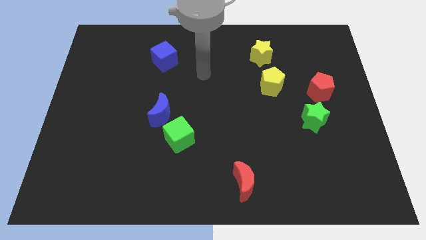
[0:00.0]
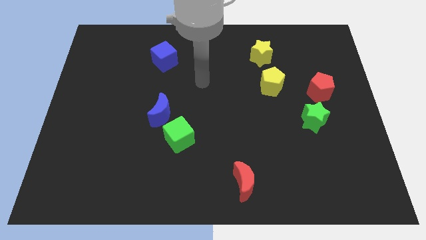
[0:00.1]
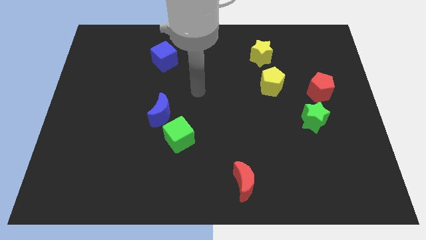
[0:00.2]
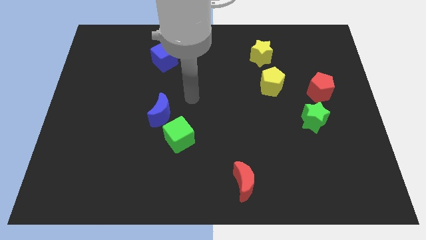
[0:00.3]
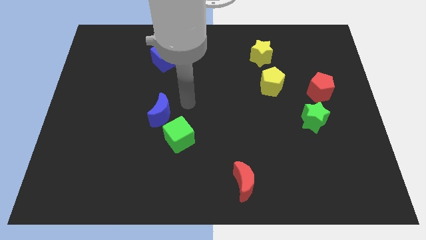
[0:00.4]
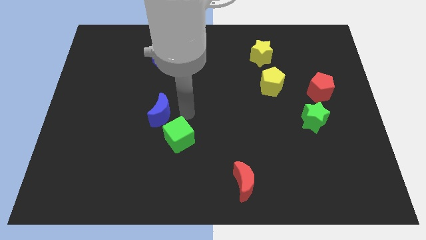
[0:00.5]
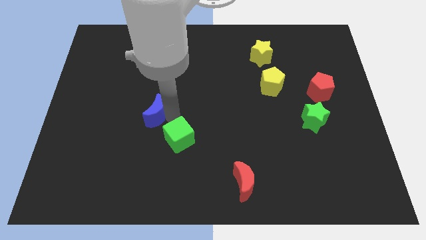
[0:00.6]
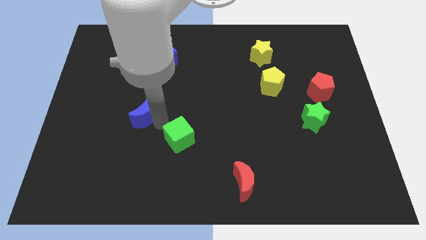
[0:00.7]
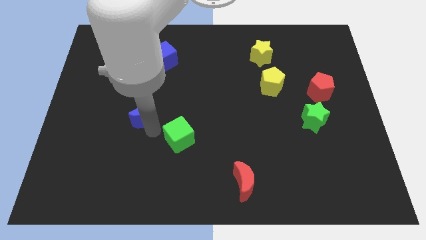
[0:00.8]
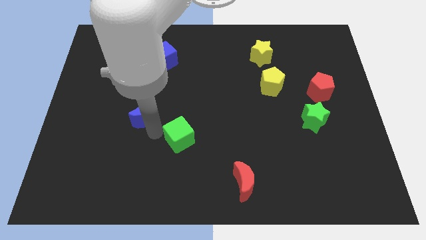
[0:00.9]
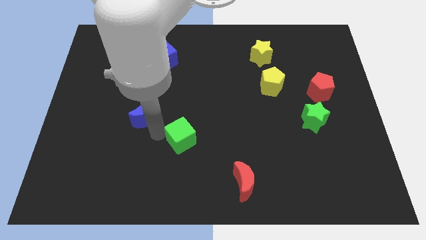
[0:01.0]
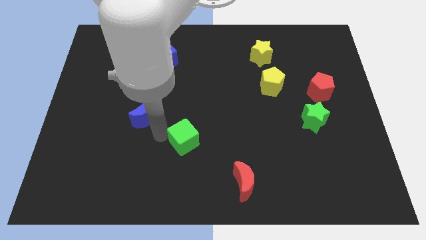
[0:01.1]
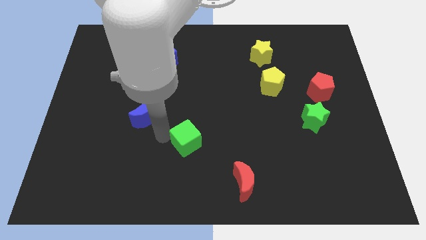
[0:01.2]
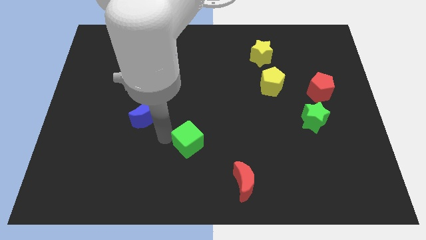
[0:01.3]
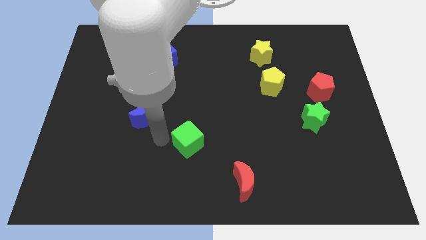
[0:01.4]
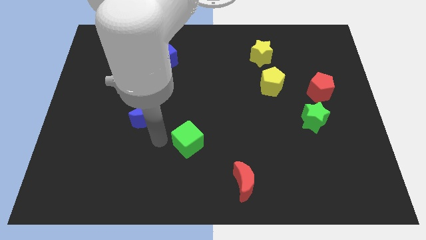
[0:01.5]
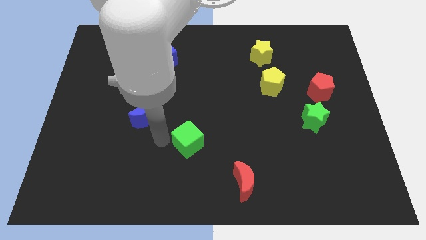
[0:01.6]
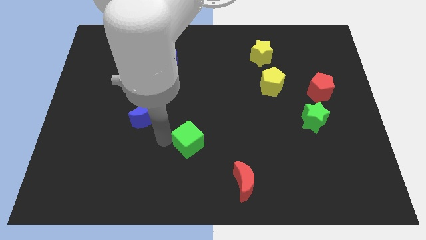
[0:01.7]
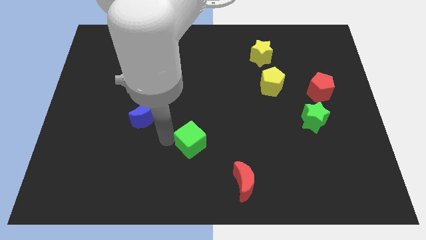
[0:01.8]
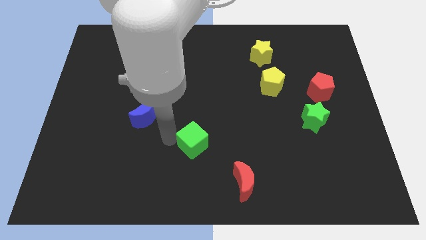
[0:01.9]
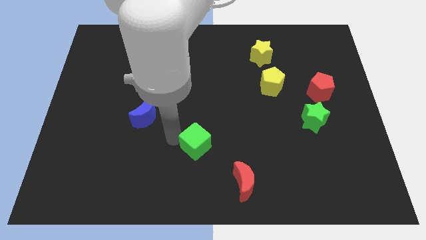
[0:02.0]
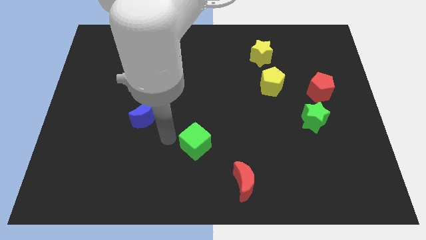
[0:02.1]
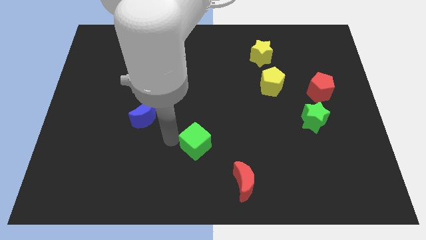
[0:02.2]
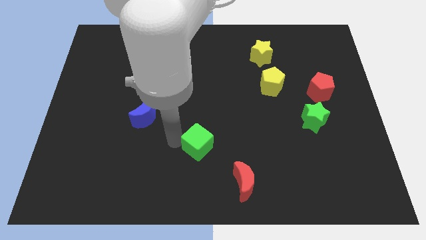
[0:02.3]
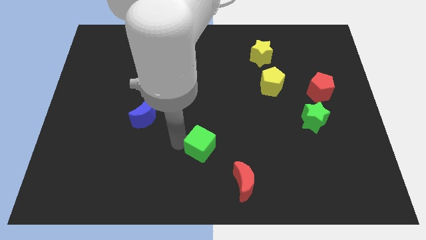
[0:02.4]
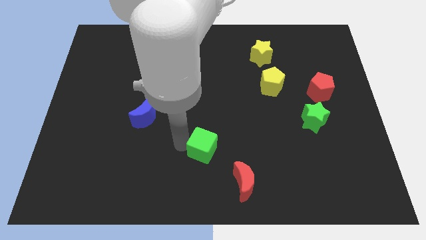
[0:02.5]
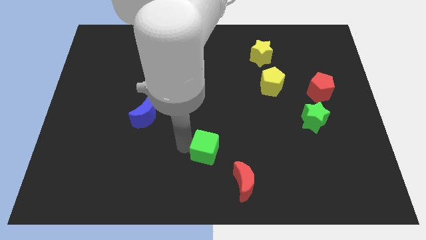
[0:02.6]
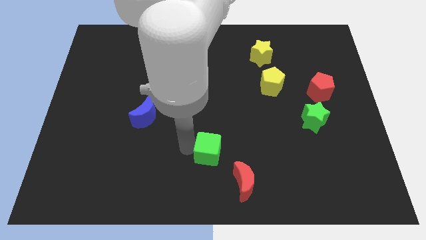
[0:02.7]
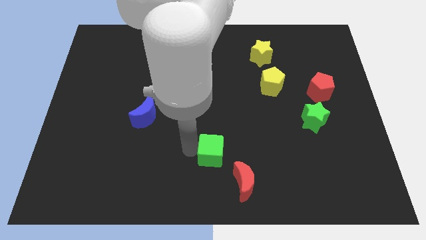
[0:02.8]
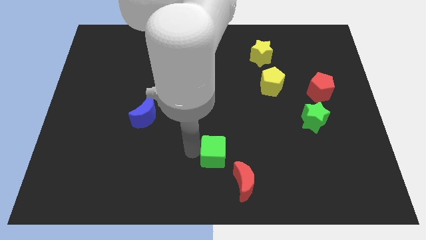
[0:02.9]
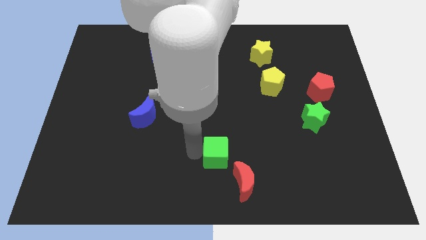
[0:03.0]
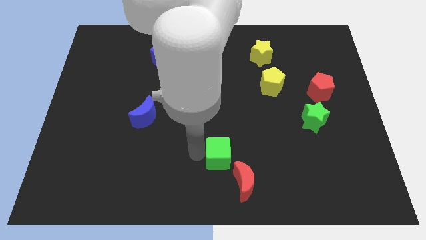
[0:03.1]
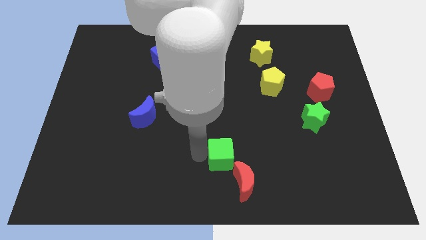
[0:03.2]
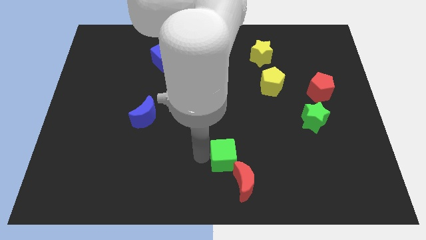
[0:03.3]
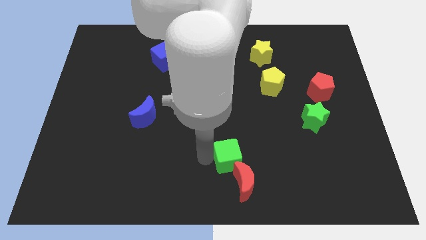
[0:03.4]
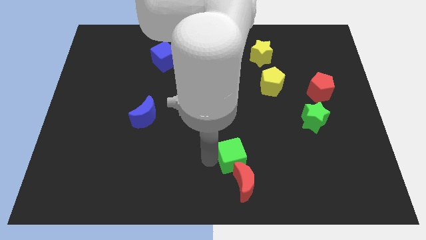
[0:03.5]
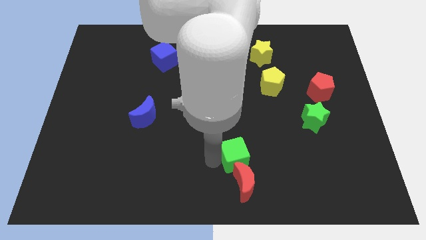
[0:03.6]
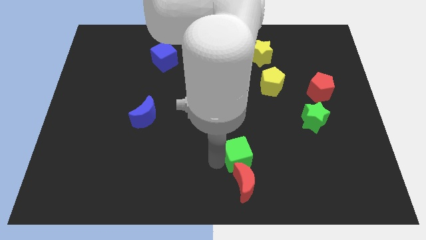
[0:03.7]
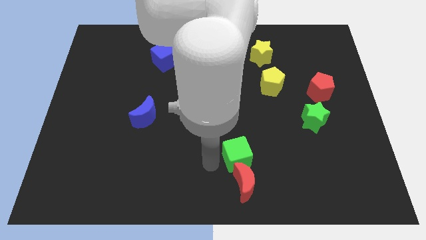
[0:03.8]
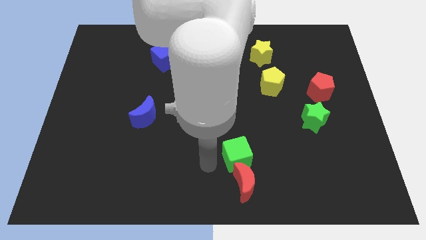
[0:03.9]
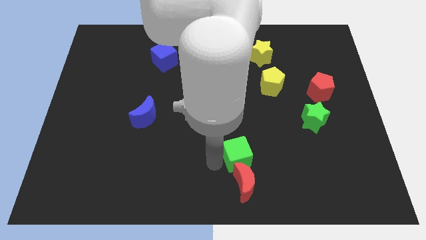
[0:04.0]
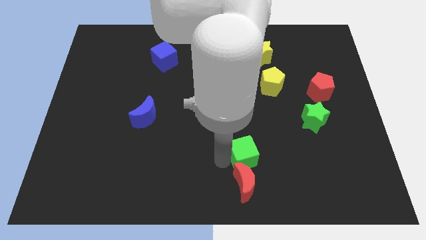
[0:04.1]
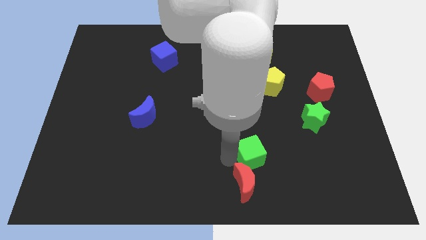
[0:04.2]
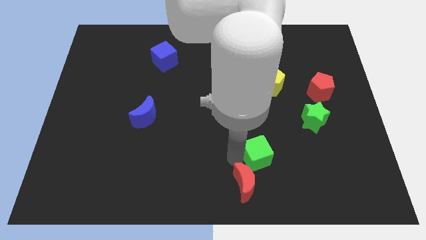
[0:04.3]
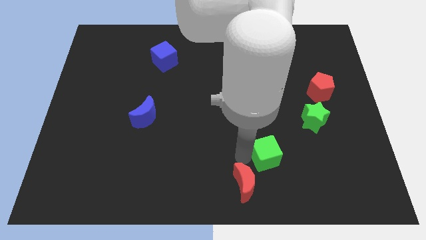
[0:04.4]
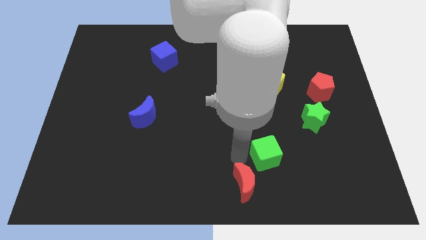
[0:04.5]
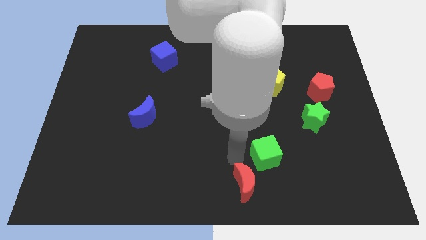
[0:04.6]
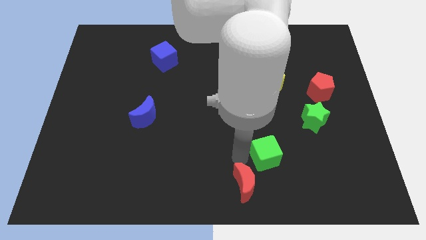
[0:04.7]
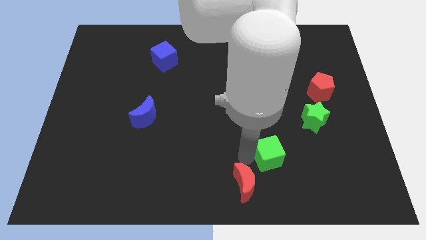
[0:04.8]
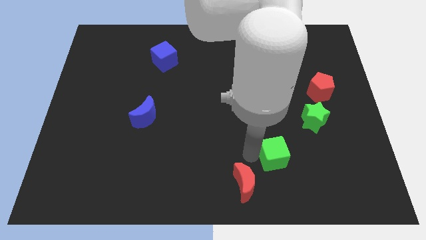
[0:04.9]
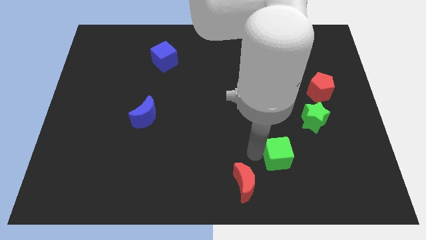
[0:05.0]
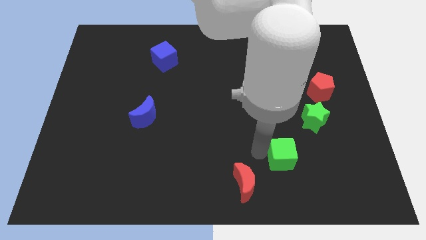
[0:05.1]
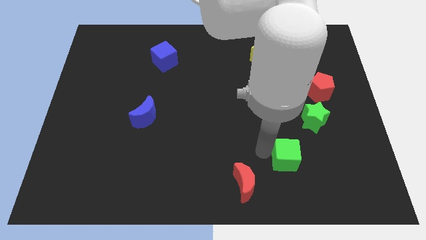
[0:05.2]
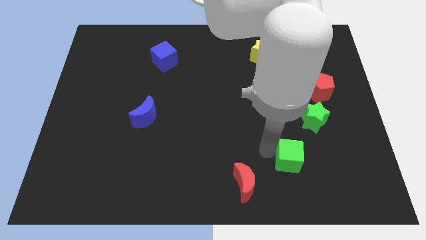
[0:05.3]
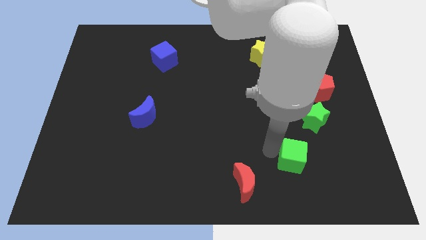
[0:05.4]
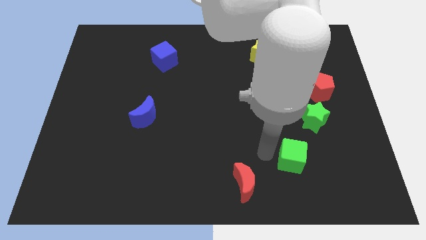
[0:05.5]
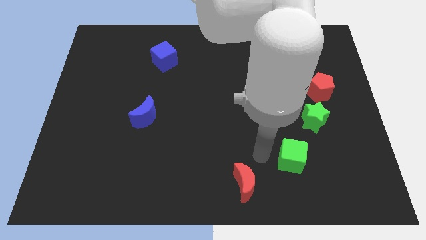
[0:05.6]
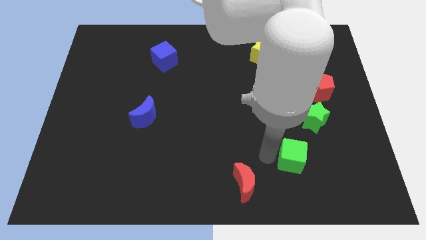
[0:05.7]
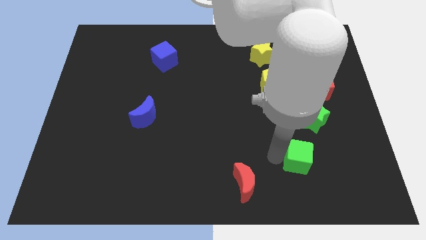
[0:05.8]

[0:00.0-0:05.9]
move the green cube below the green star
